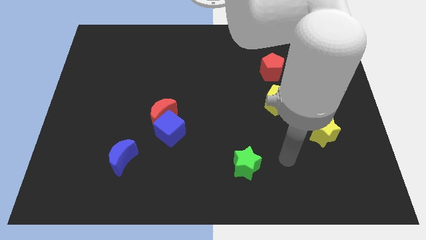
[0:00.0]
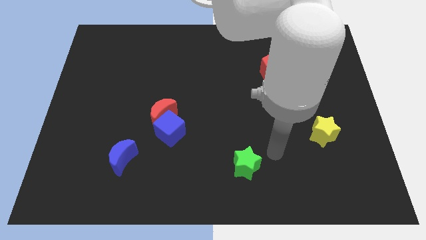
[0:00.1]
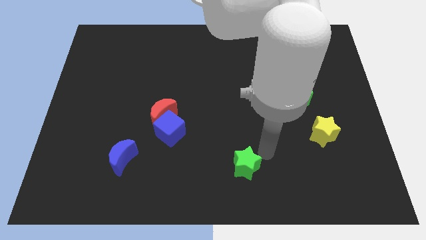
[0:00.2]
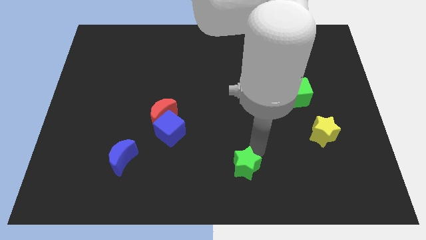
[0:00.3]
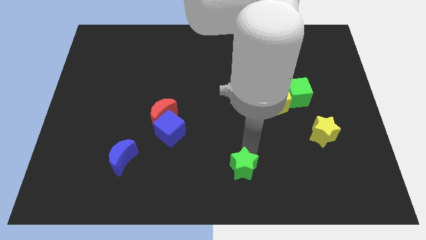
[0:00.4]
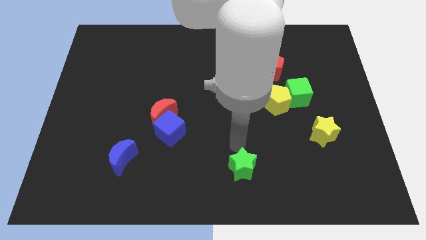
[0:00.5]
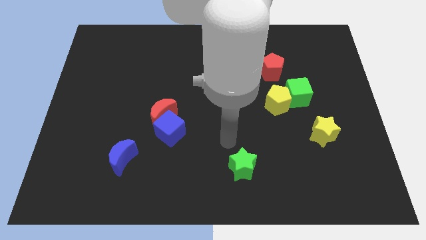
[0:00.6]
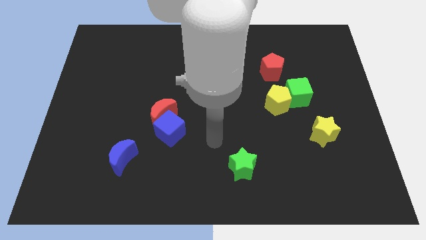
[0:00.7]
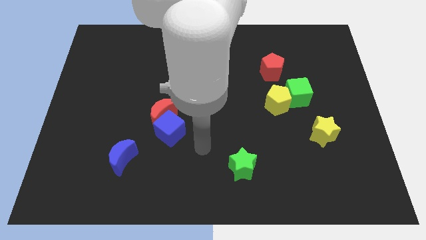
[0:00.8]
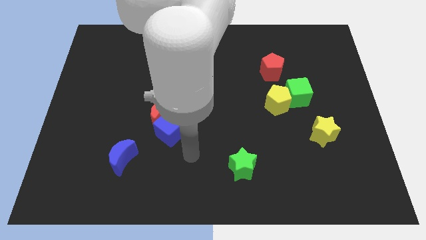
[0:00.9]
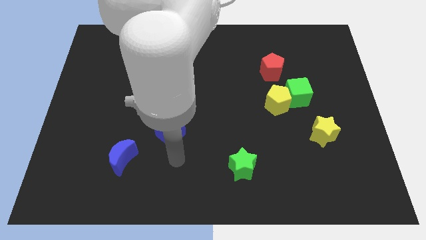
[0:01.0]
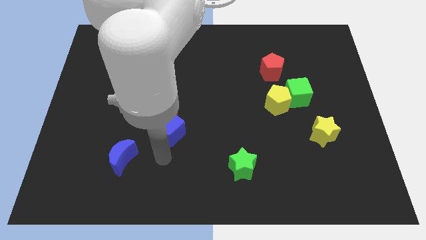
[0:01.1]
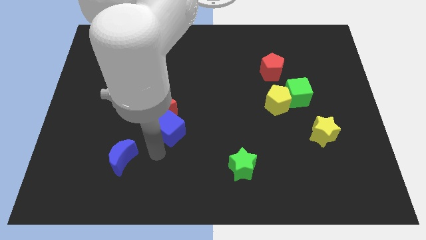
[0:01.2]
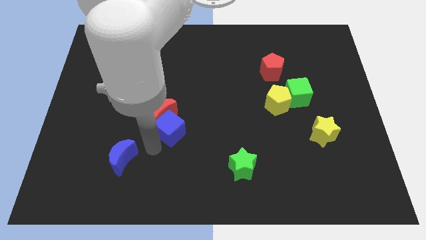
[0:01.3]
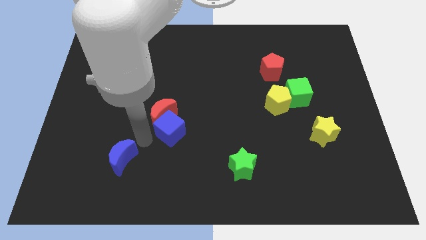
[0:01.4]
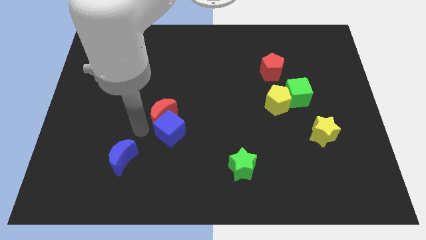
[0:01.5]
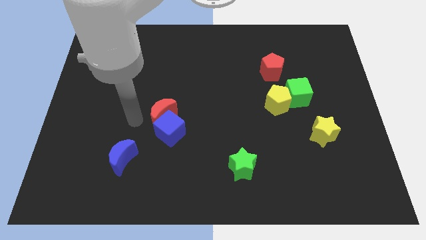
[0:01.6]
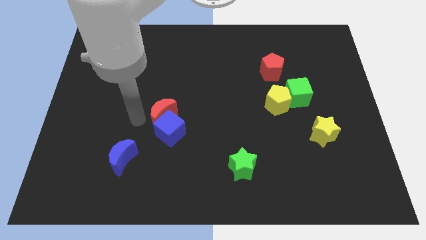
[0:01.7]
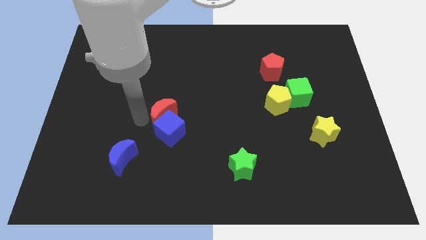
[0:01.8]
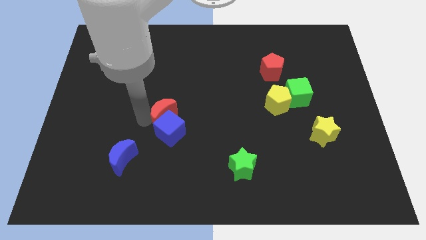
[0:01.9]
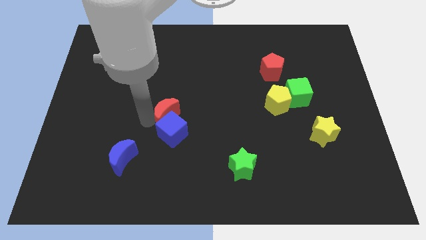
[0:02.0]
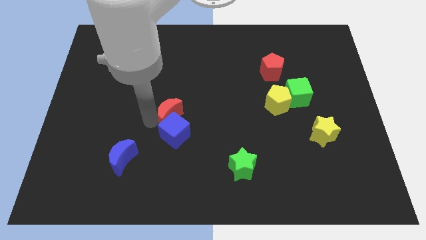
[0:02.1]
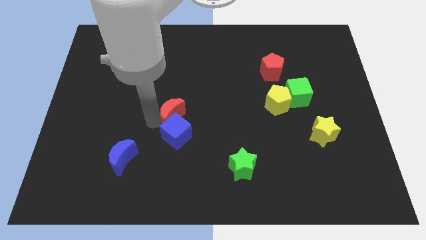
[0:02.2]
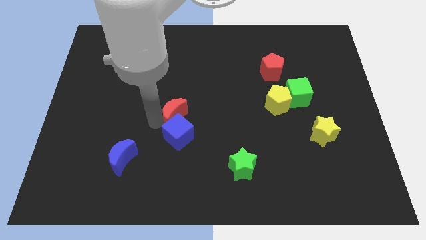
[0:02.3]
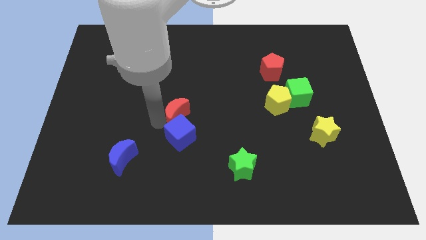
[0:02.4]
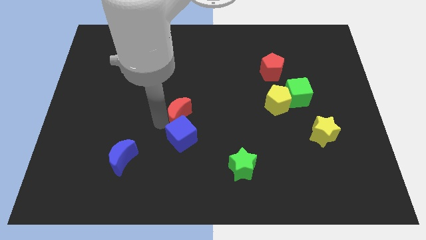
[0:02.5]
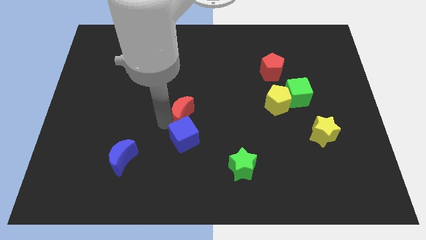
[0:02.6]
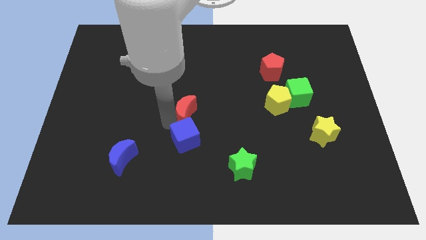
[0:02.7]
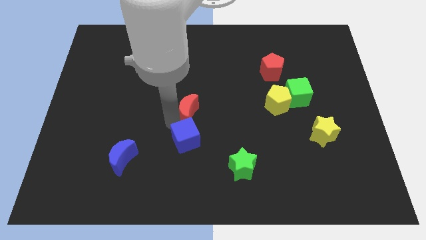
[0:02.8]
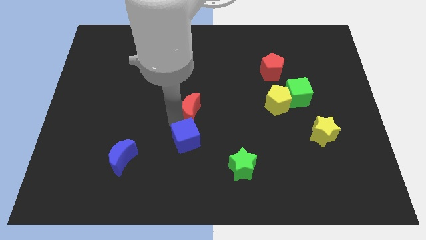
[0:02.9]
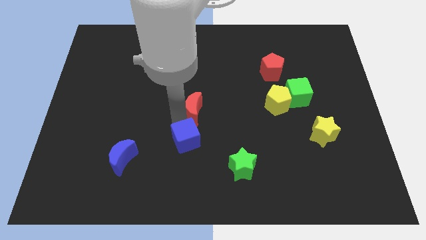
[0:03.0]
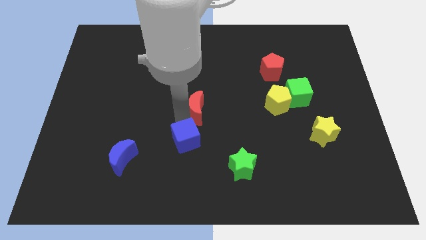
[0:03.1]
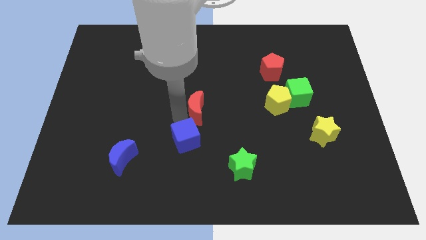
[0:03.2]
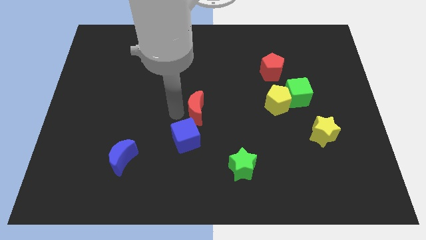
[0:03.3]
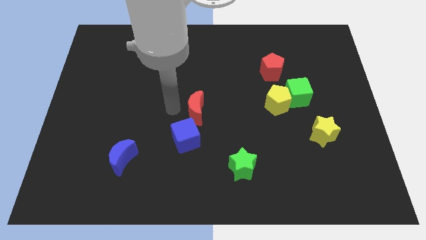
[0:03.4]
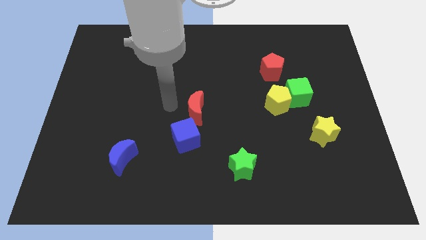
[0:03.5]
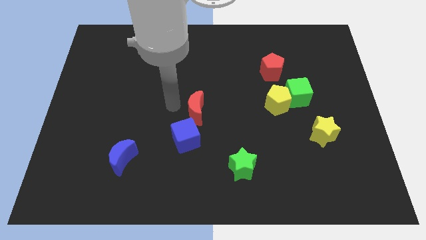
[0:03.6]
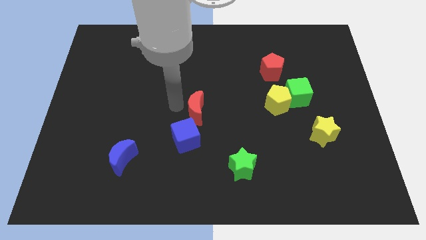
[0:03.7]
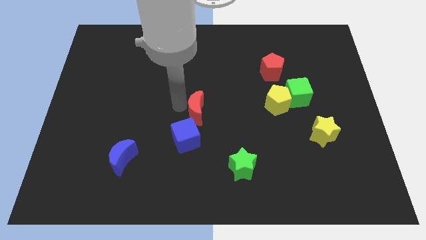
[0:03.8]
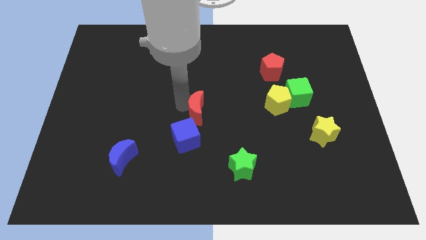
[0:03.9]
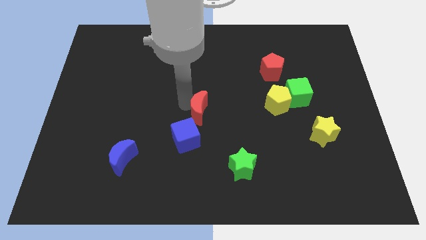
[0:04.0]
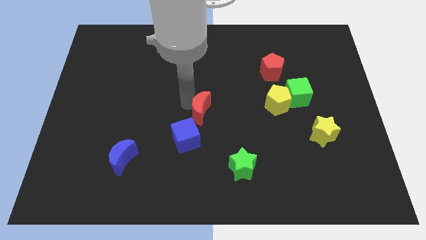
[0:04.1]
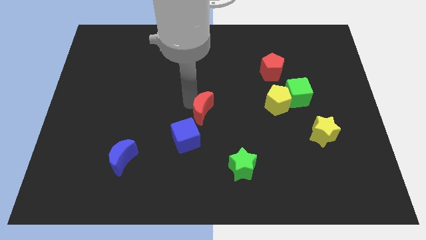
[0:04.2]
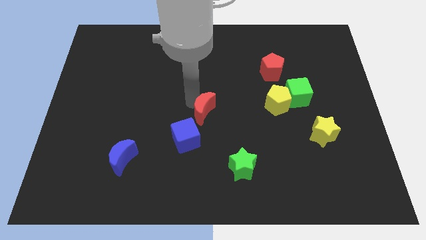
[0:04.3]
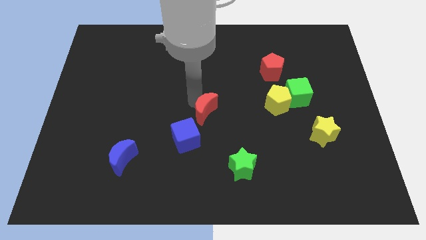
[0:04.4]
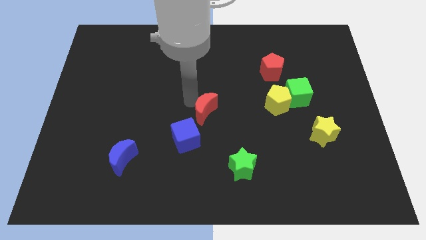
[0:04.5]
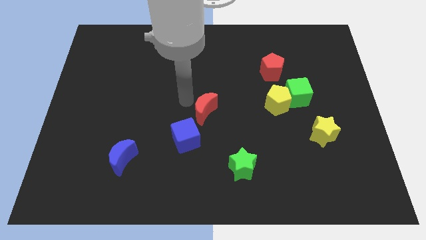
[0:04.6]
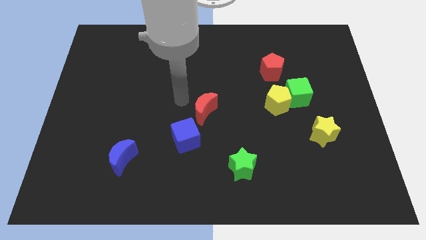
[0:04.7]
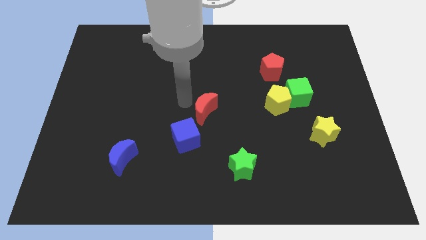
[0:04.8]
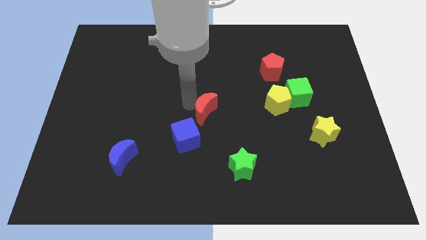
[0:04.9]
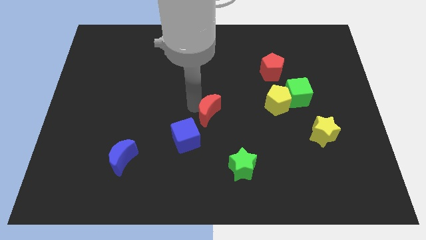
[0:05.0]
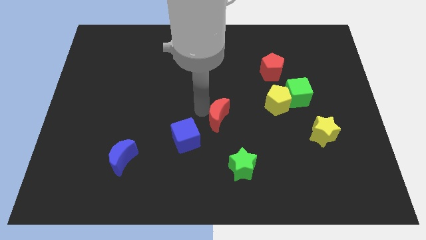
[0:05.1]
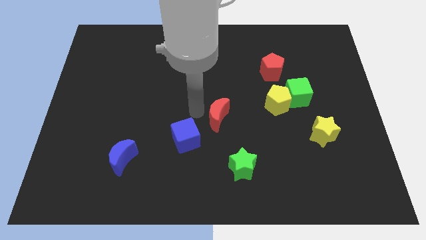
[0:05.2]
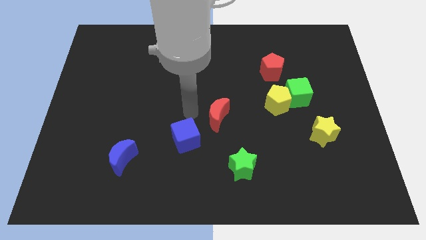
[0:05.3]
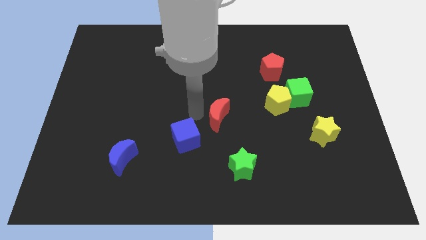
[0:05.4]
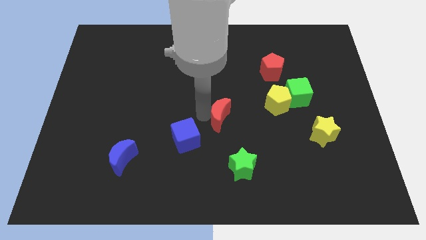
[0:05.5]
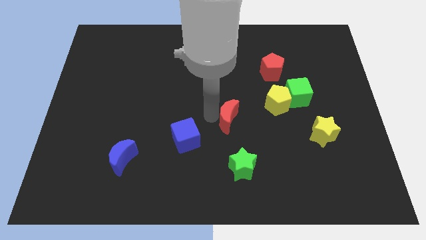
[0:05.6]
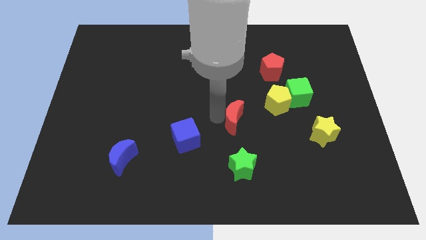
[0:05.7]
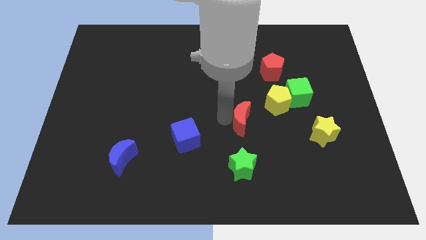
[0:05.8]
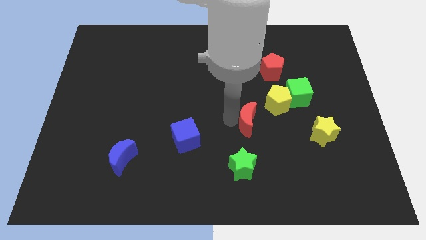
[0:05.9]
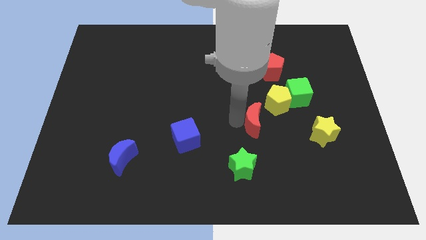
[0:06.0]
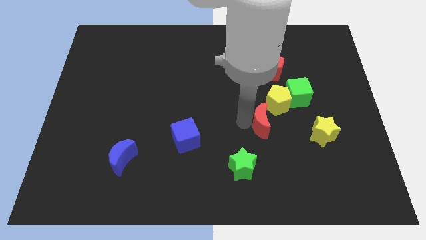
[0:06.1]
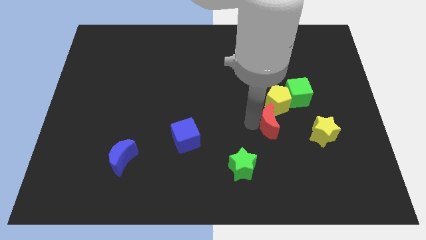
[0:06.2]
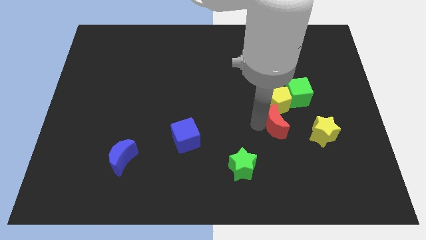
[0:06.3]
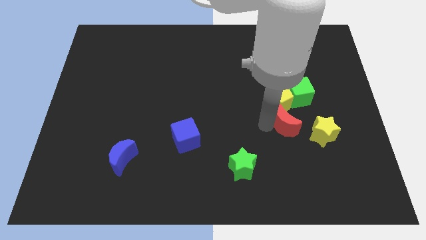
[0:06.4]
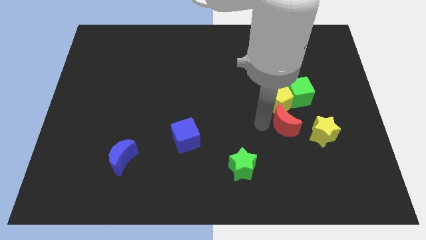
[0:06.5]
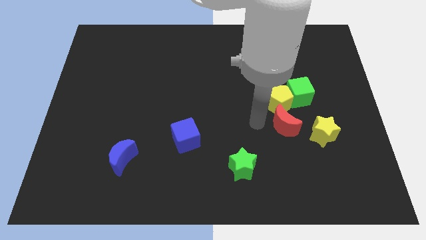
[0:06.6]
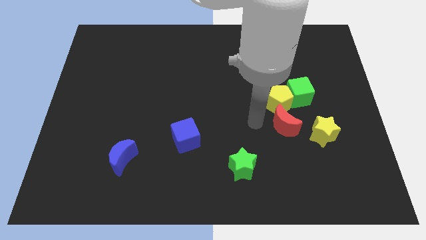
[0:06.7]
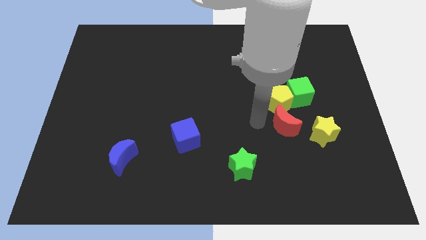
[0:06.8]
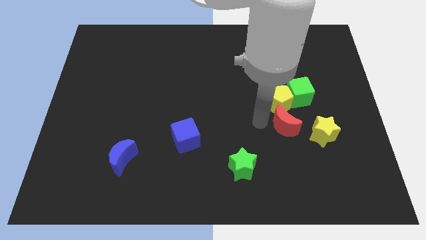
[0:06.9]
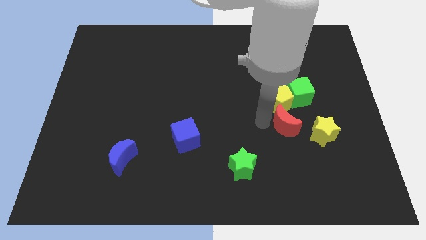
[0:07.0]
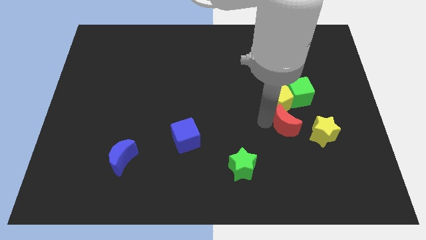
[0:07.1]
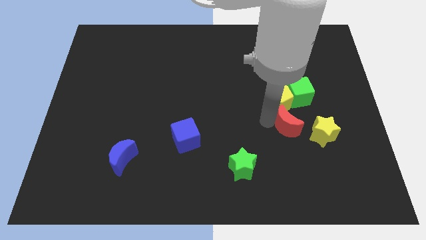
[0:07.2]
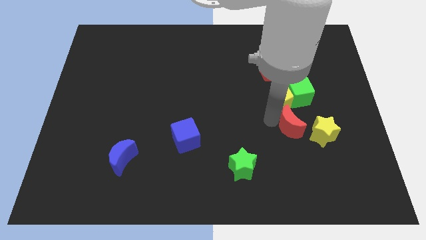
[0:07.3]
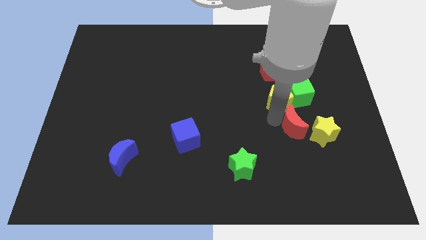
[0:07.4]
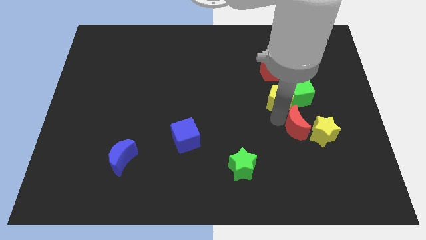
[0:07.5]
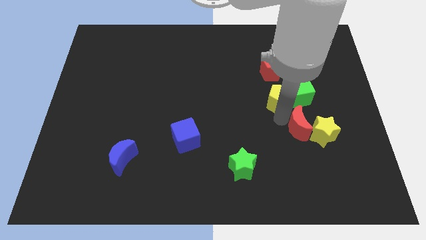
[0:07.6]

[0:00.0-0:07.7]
slide the red moon close to the yellow star
